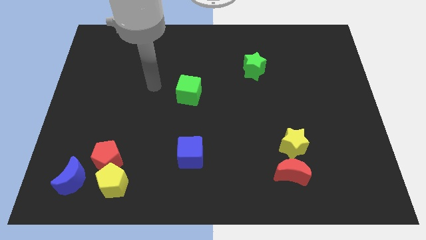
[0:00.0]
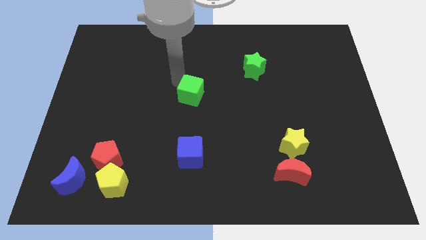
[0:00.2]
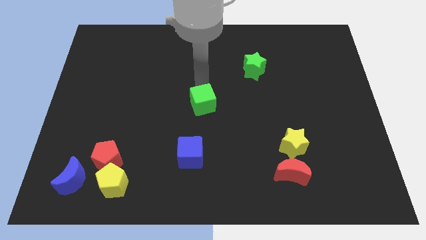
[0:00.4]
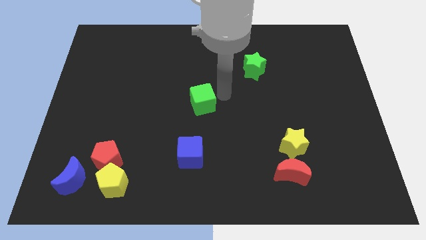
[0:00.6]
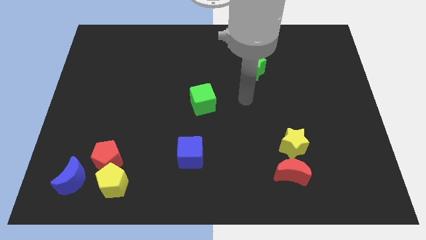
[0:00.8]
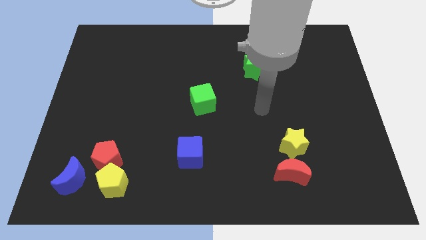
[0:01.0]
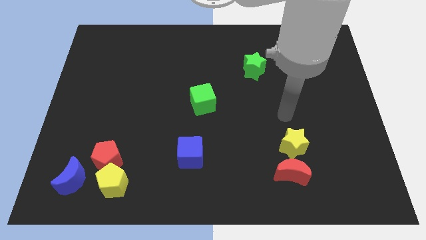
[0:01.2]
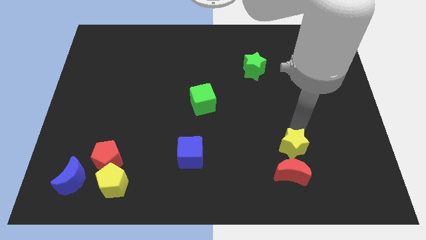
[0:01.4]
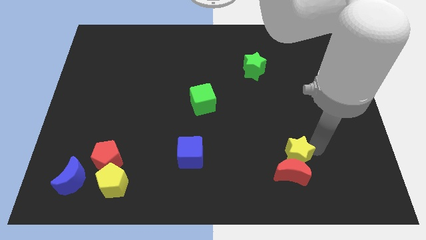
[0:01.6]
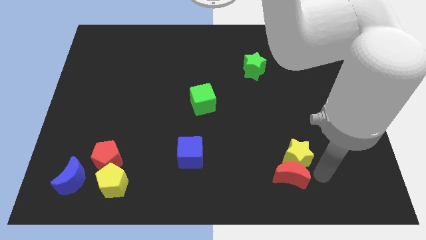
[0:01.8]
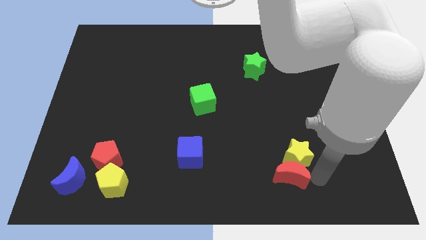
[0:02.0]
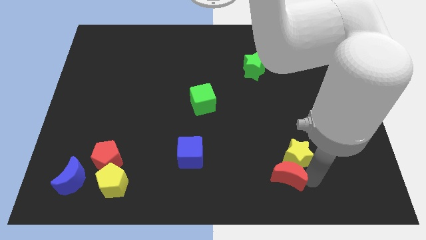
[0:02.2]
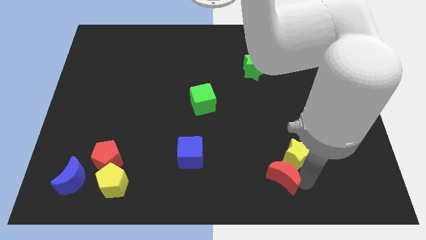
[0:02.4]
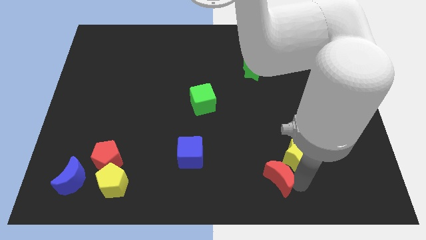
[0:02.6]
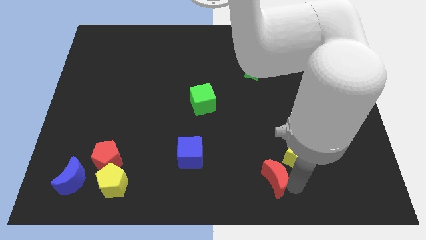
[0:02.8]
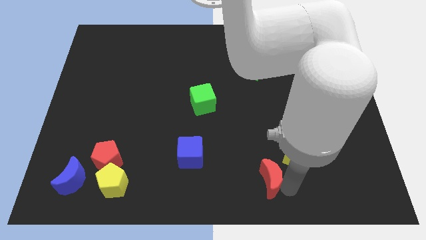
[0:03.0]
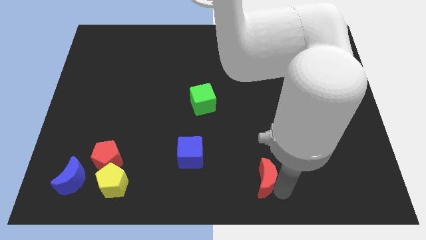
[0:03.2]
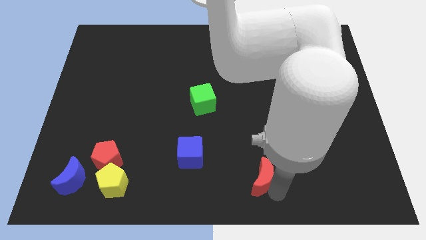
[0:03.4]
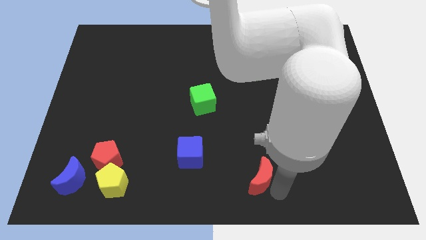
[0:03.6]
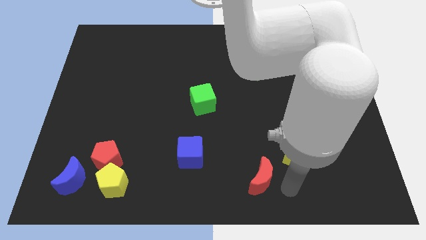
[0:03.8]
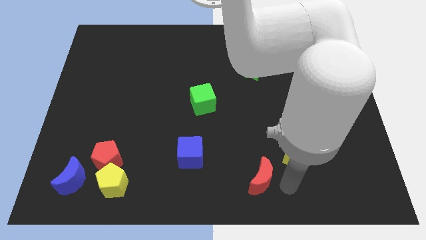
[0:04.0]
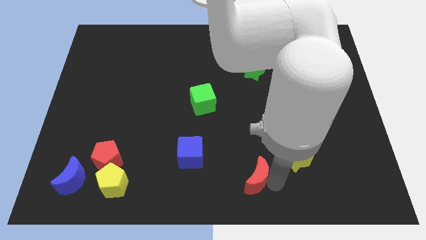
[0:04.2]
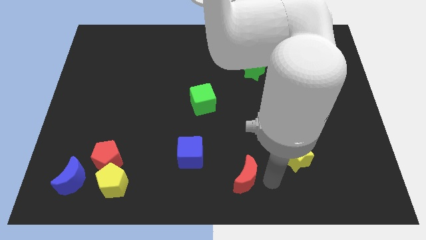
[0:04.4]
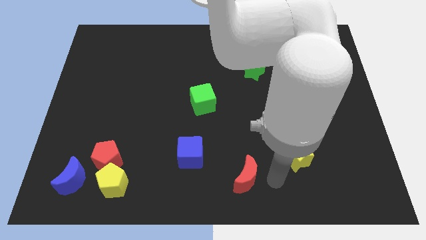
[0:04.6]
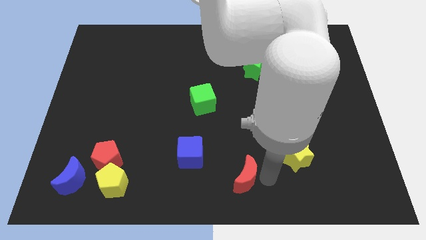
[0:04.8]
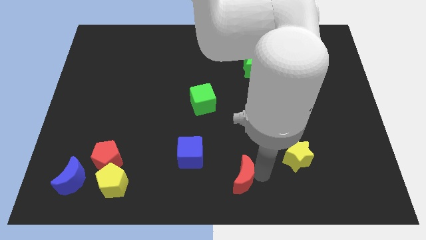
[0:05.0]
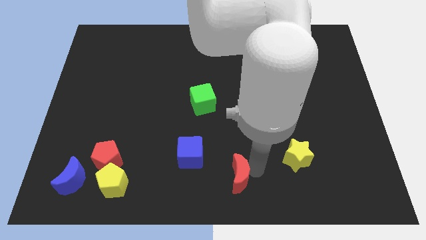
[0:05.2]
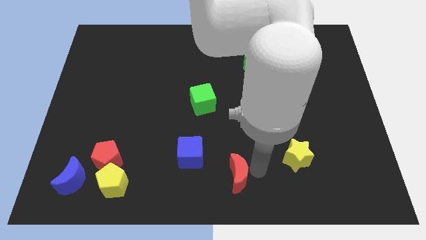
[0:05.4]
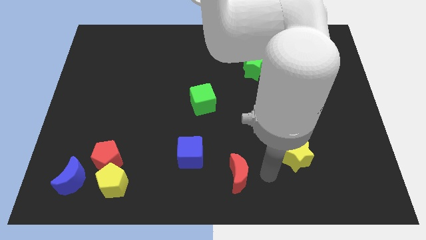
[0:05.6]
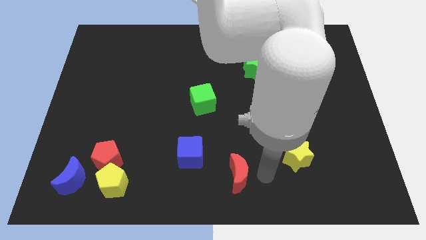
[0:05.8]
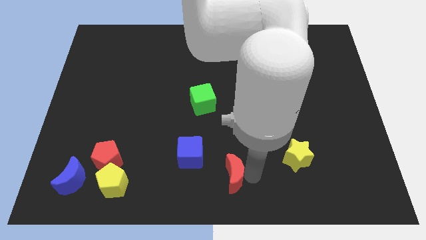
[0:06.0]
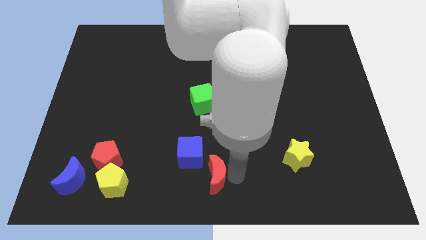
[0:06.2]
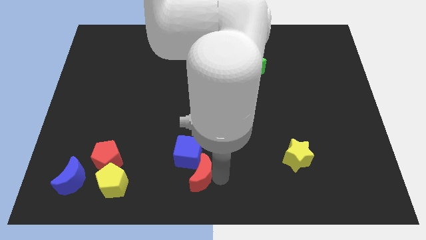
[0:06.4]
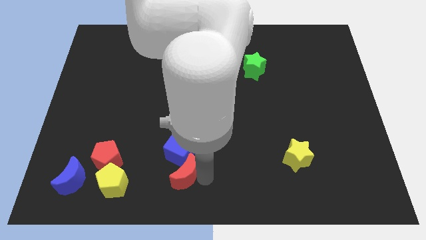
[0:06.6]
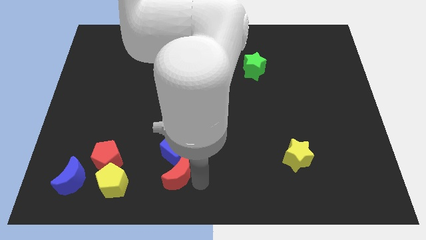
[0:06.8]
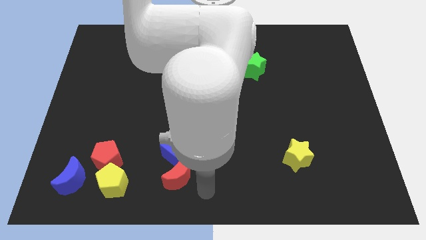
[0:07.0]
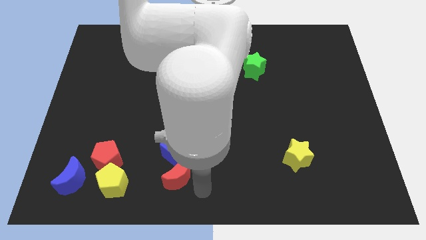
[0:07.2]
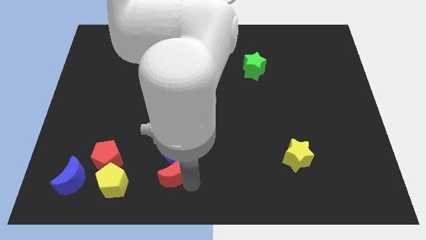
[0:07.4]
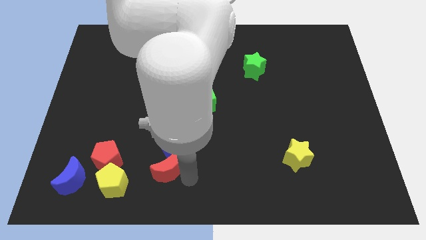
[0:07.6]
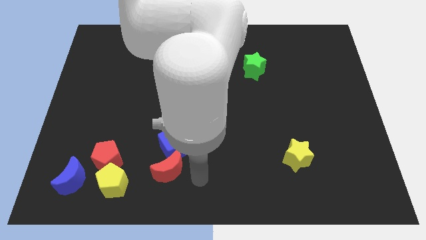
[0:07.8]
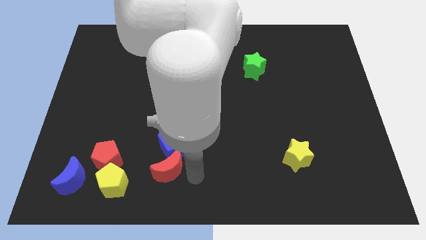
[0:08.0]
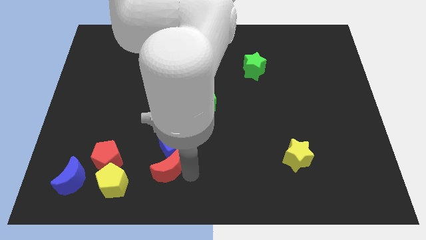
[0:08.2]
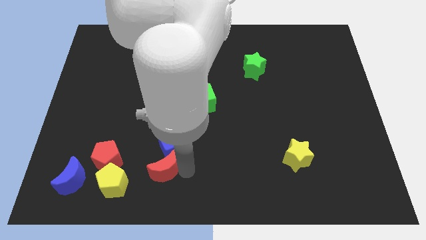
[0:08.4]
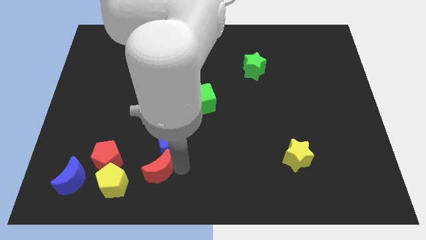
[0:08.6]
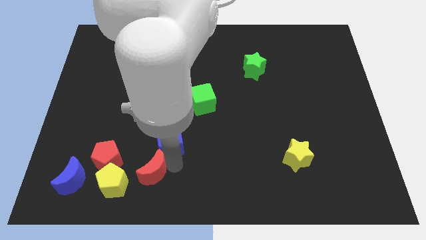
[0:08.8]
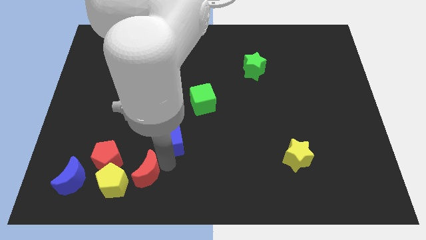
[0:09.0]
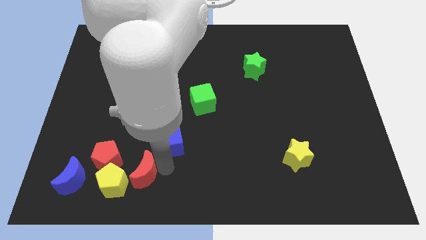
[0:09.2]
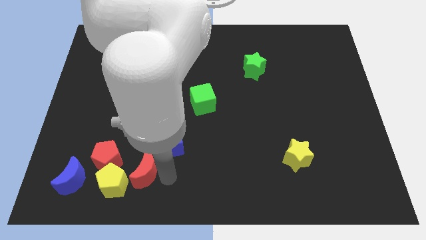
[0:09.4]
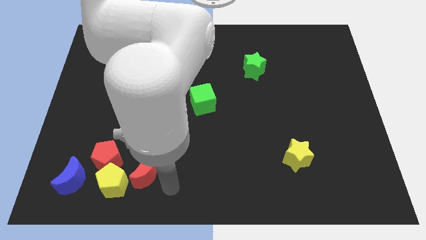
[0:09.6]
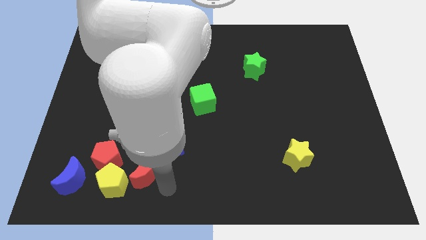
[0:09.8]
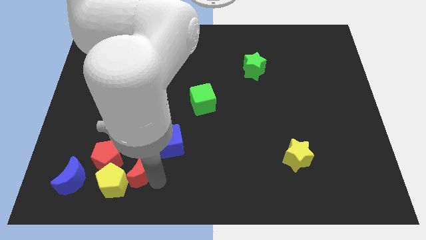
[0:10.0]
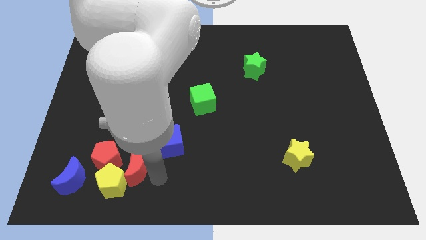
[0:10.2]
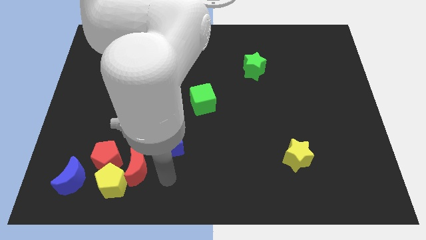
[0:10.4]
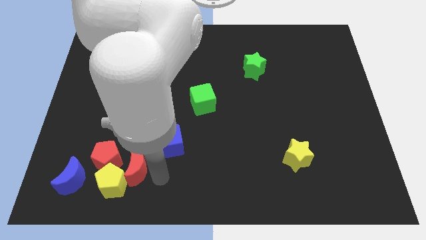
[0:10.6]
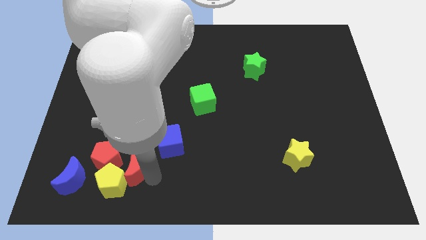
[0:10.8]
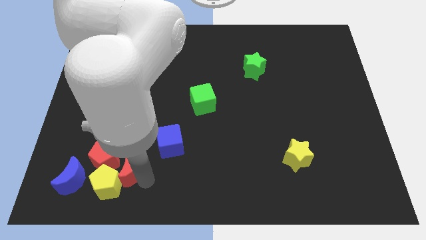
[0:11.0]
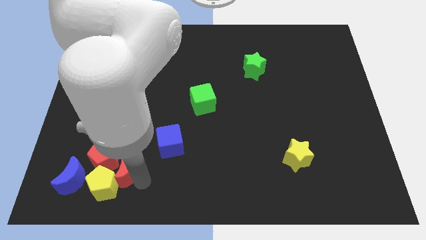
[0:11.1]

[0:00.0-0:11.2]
move the red moon next to the red pentagon

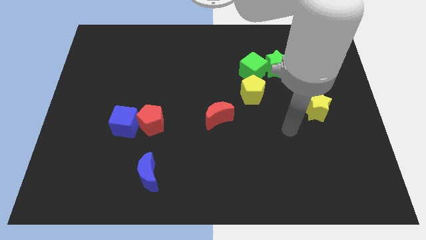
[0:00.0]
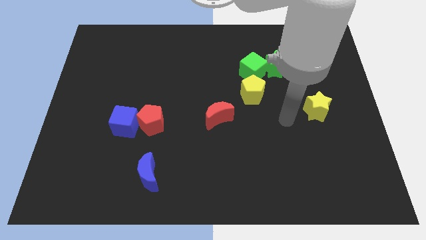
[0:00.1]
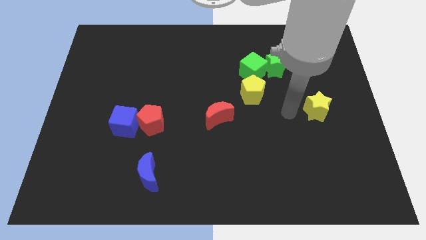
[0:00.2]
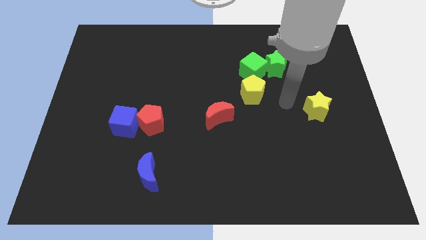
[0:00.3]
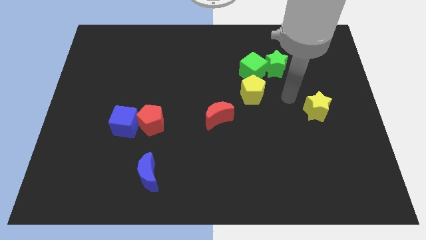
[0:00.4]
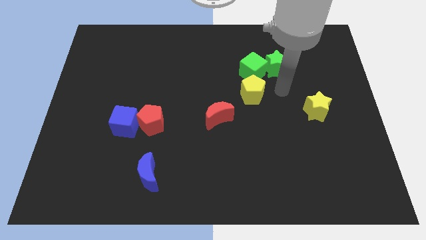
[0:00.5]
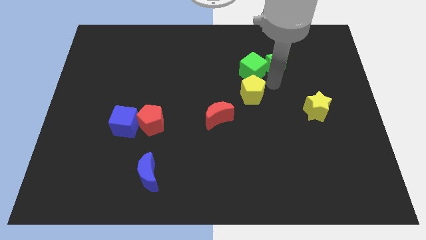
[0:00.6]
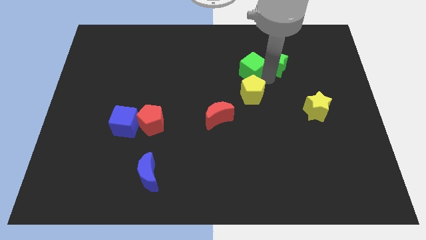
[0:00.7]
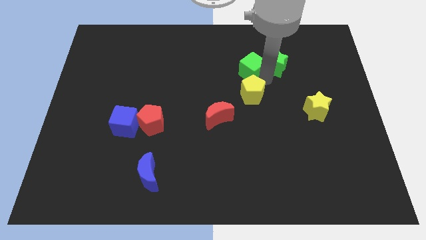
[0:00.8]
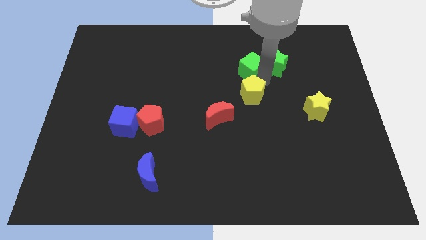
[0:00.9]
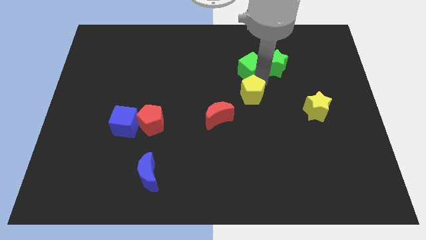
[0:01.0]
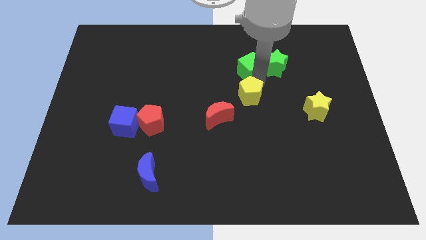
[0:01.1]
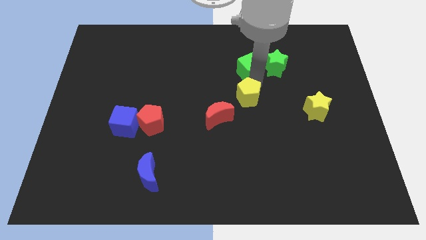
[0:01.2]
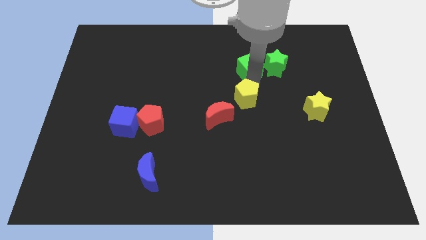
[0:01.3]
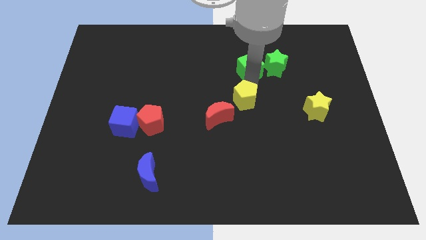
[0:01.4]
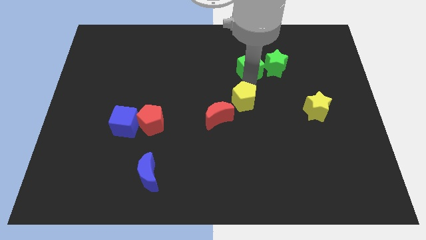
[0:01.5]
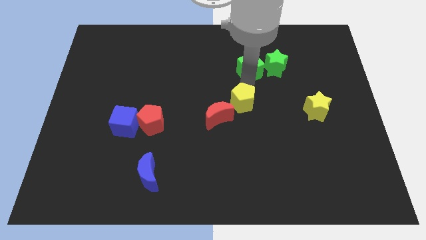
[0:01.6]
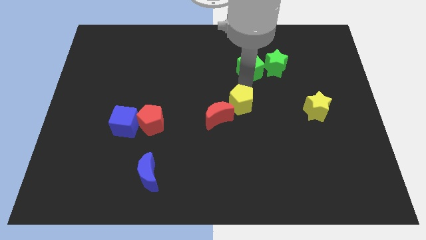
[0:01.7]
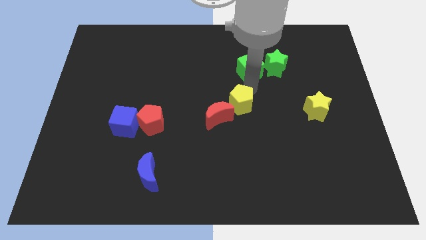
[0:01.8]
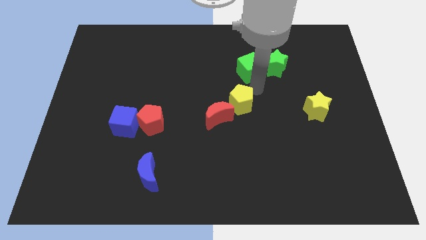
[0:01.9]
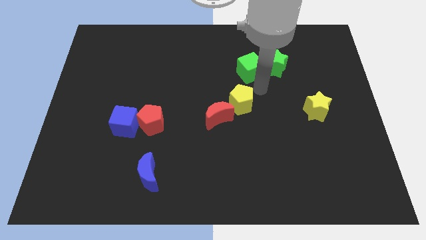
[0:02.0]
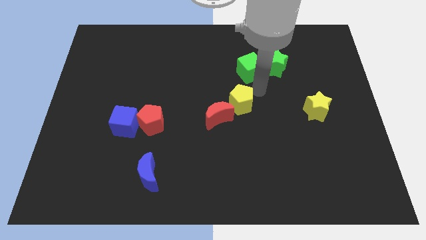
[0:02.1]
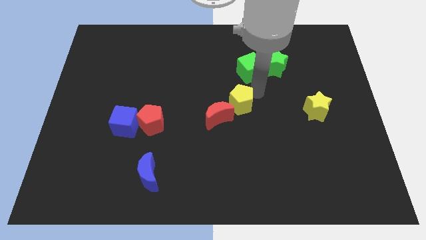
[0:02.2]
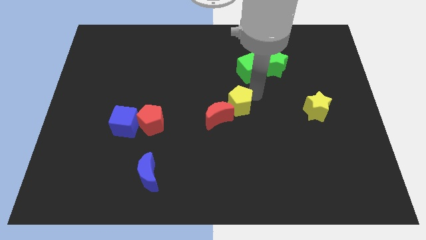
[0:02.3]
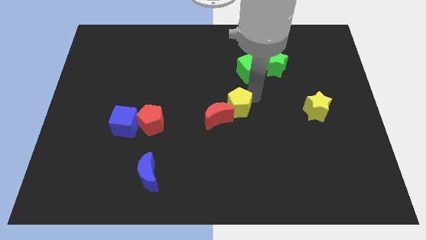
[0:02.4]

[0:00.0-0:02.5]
put the yellow pentagon to the red moon
